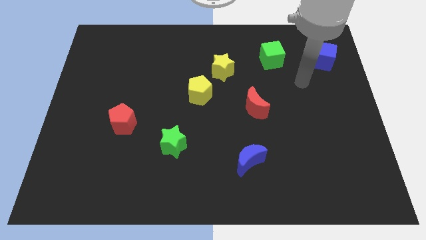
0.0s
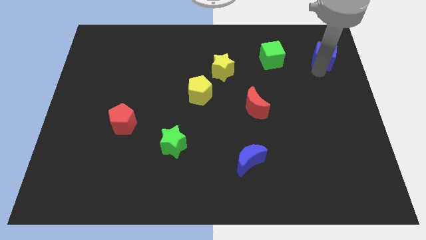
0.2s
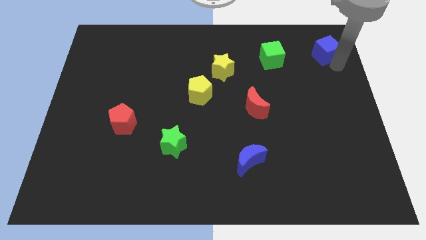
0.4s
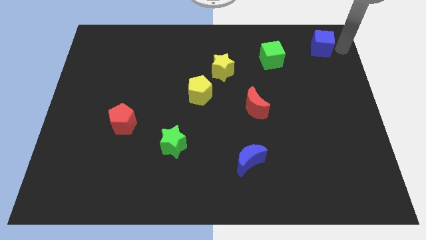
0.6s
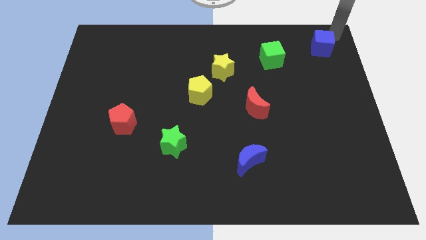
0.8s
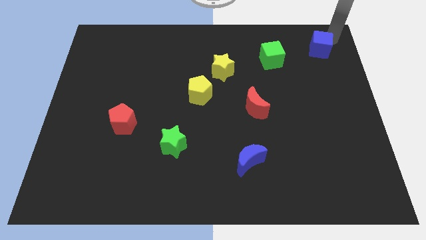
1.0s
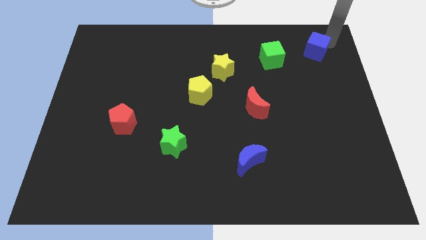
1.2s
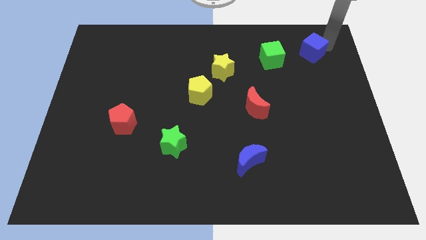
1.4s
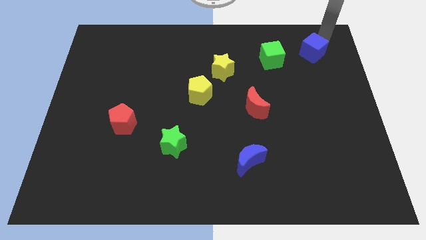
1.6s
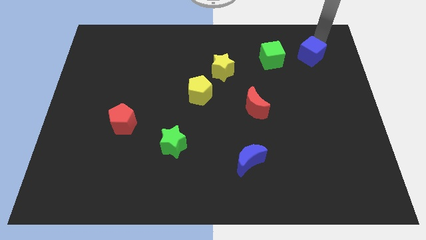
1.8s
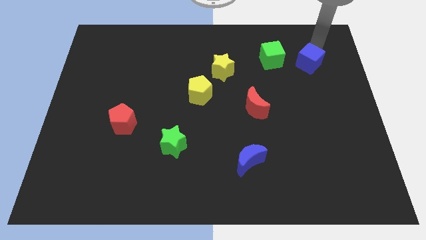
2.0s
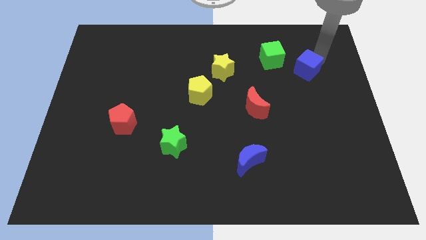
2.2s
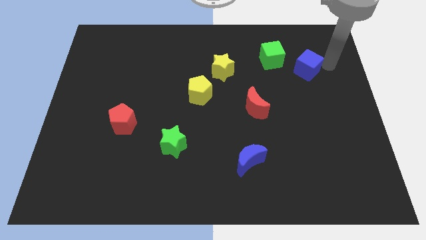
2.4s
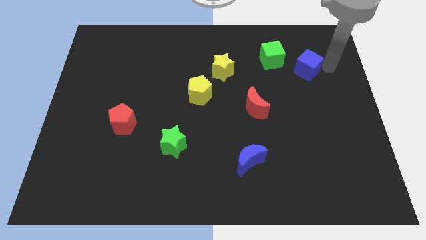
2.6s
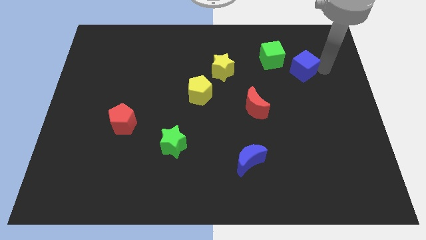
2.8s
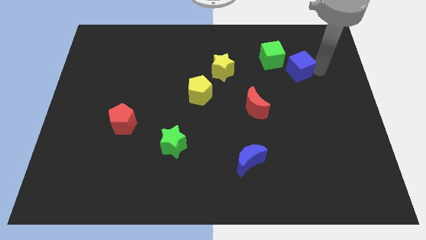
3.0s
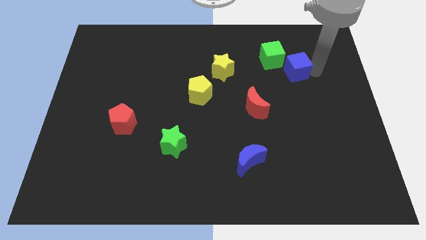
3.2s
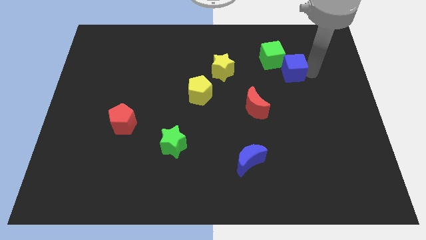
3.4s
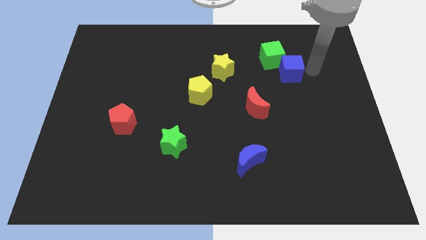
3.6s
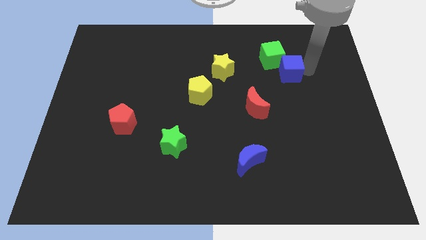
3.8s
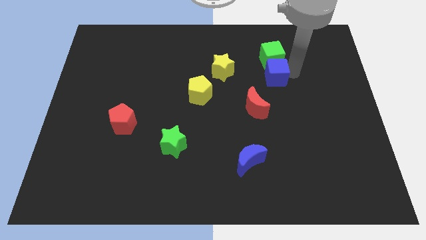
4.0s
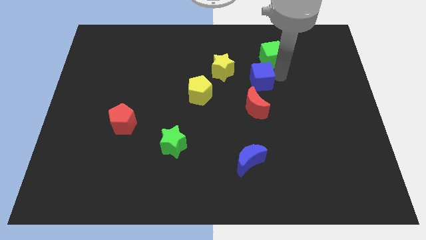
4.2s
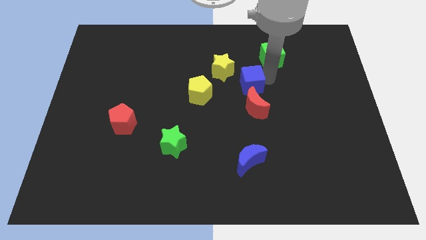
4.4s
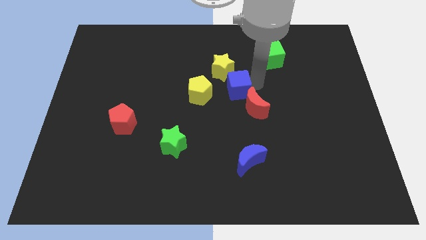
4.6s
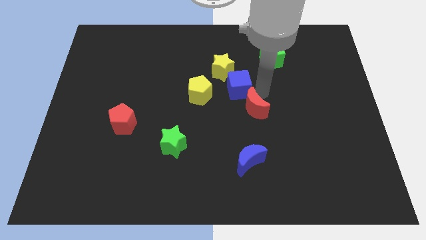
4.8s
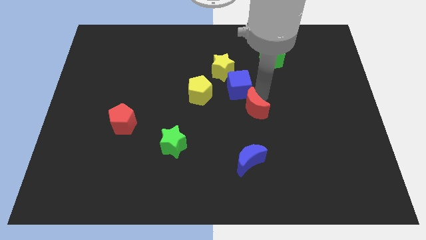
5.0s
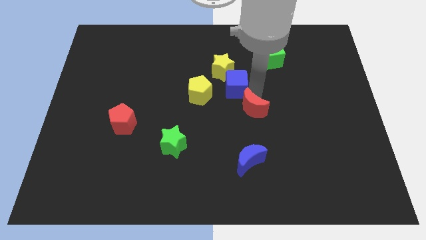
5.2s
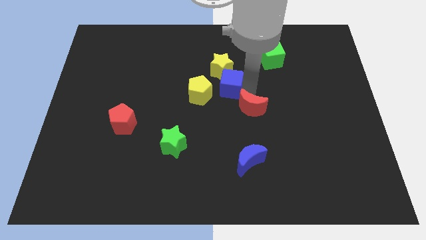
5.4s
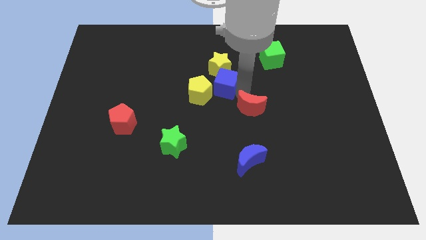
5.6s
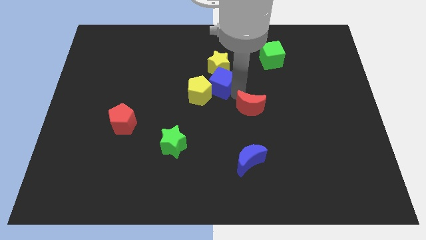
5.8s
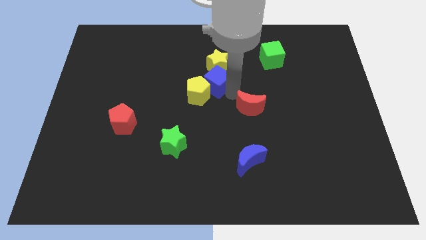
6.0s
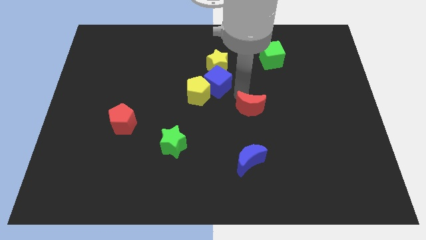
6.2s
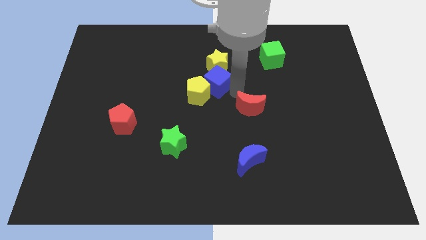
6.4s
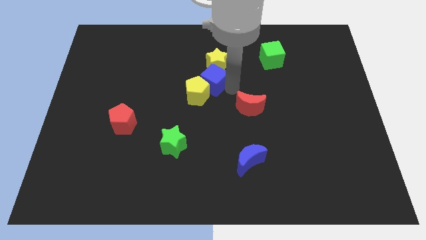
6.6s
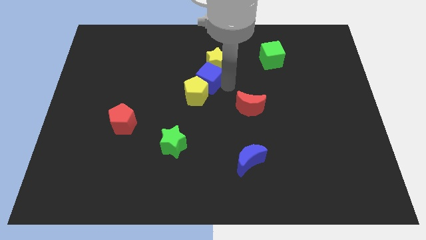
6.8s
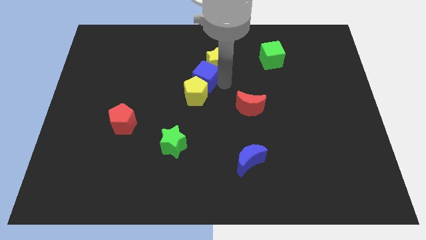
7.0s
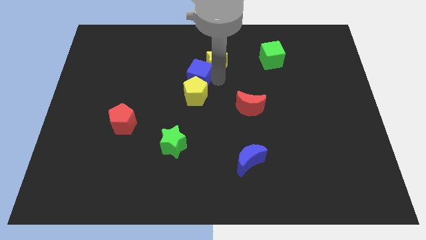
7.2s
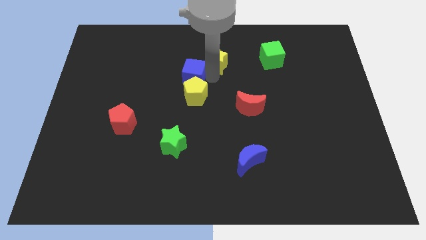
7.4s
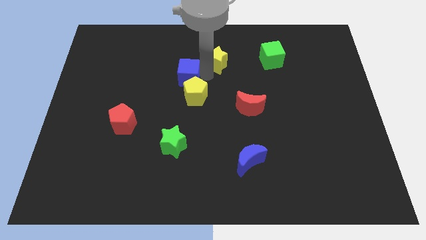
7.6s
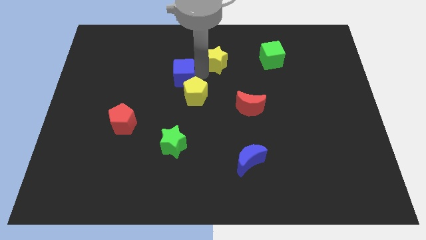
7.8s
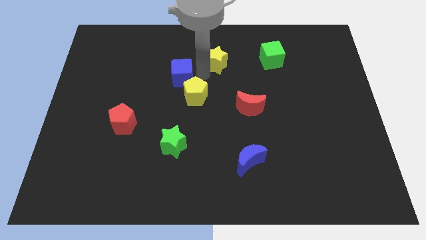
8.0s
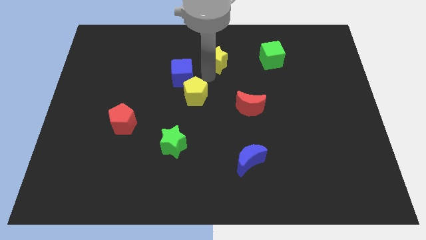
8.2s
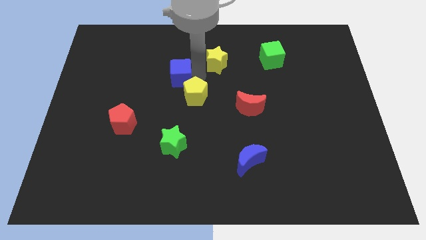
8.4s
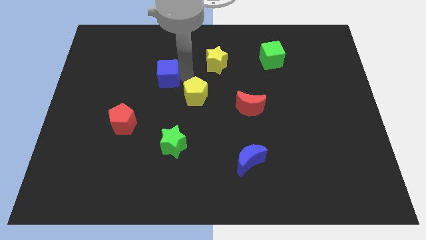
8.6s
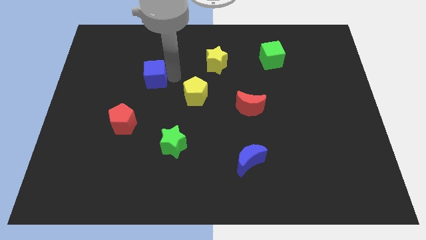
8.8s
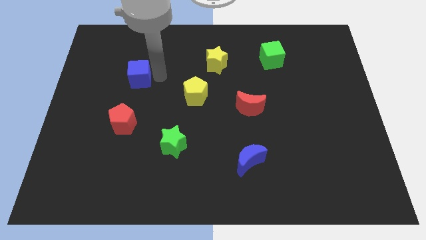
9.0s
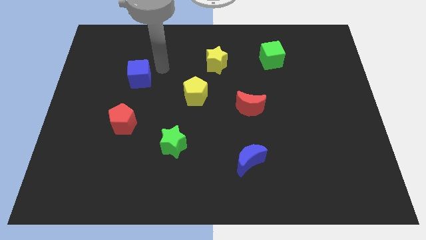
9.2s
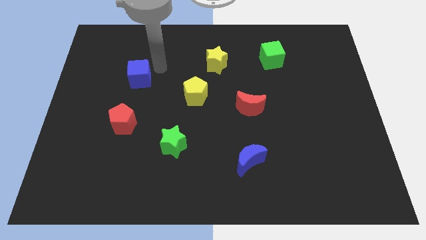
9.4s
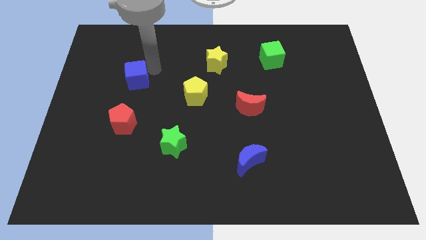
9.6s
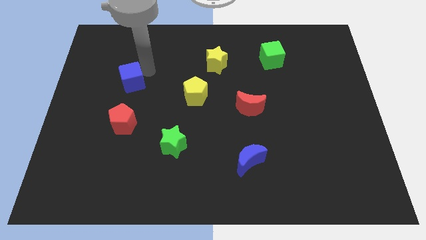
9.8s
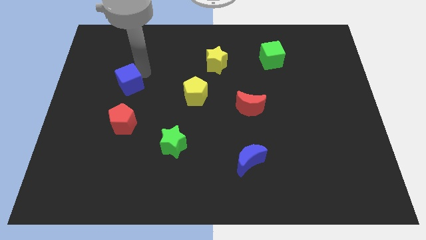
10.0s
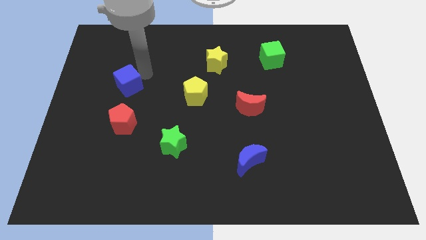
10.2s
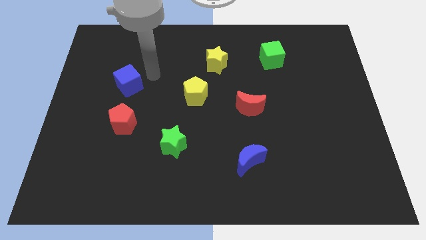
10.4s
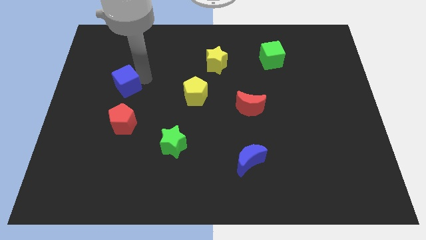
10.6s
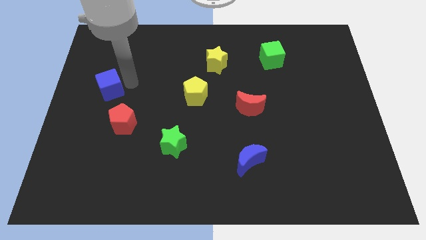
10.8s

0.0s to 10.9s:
move the blue cube to the center left
